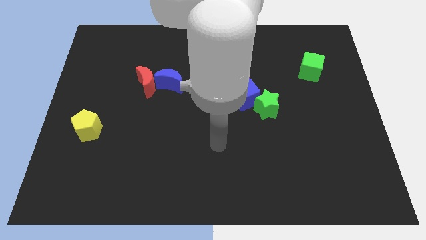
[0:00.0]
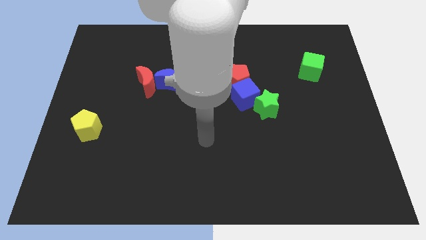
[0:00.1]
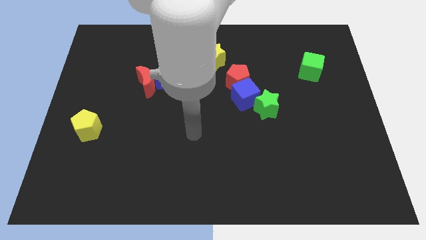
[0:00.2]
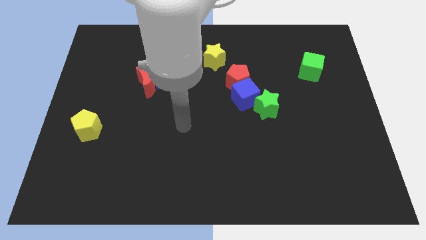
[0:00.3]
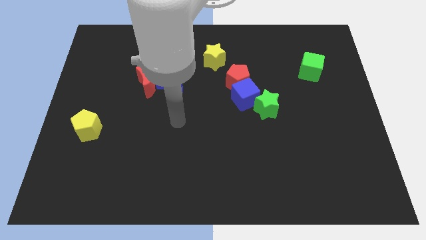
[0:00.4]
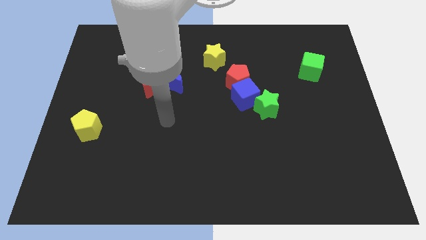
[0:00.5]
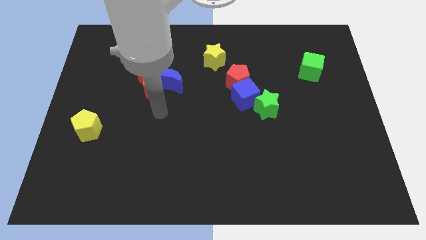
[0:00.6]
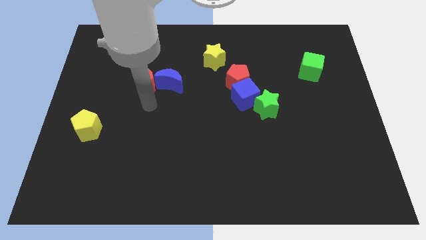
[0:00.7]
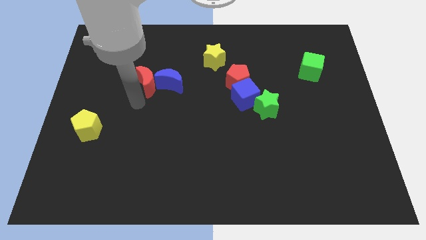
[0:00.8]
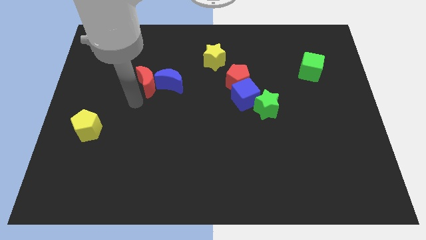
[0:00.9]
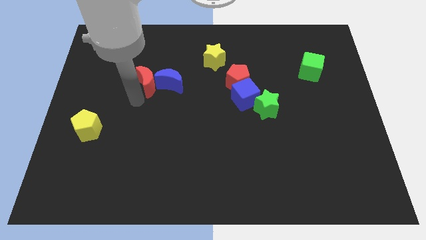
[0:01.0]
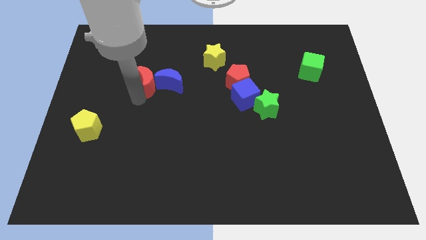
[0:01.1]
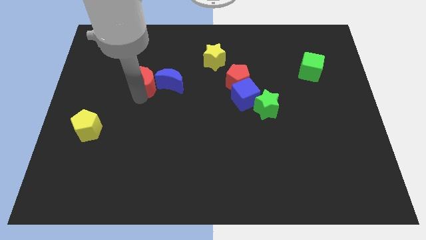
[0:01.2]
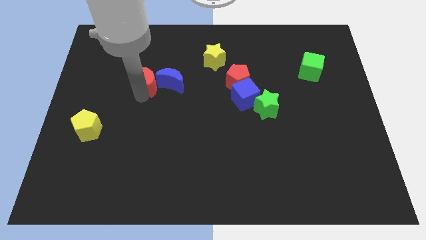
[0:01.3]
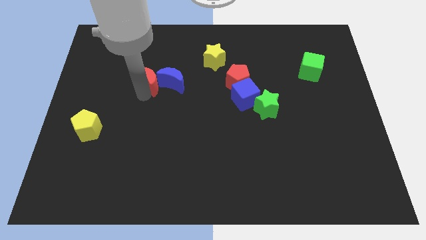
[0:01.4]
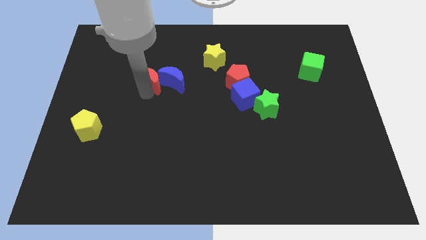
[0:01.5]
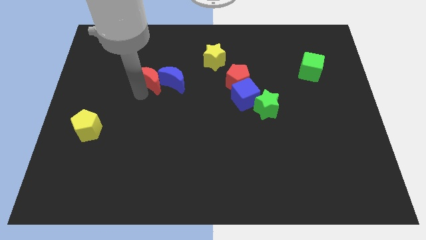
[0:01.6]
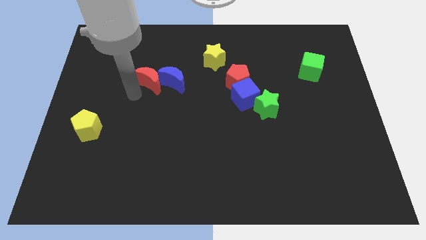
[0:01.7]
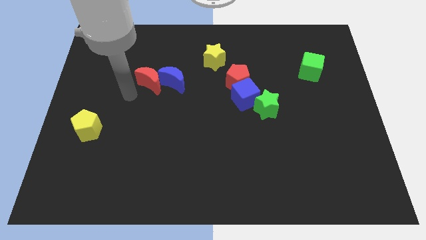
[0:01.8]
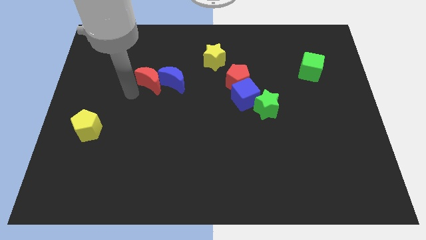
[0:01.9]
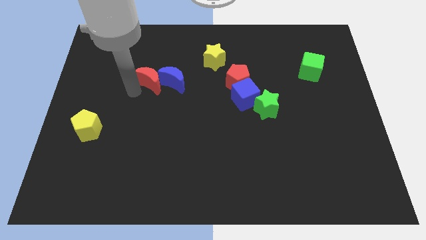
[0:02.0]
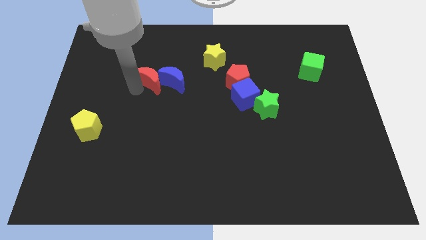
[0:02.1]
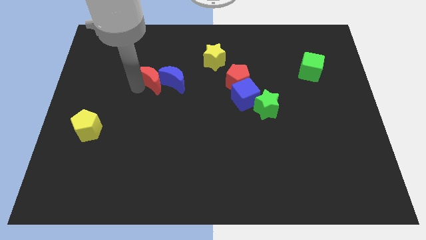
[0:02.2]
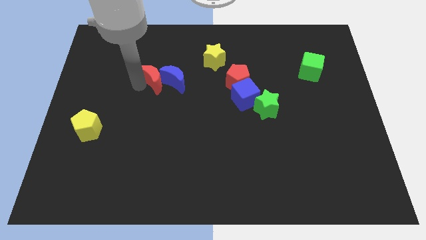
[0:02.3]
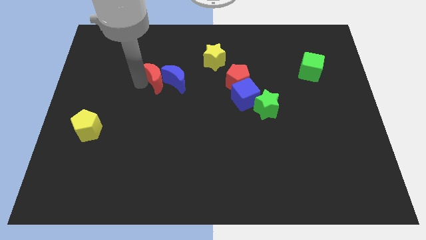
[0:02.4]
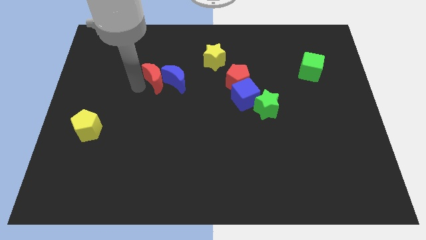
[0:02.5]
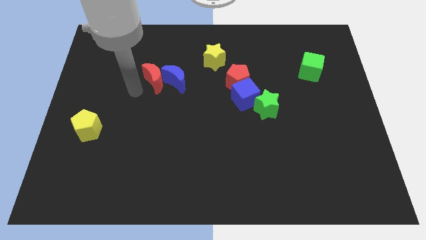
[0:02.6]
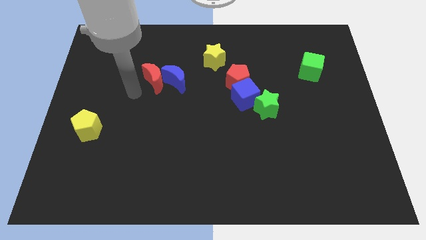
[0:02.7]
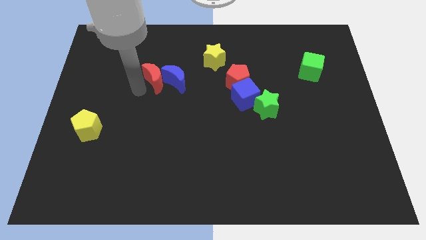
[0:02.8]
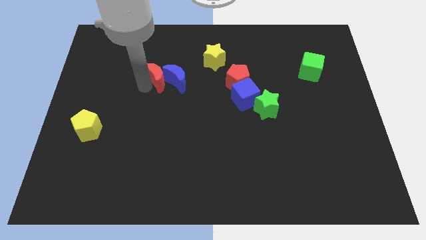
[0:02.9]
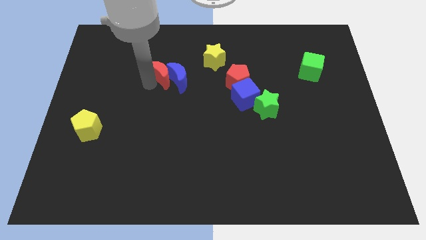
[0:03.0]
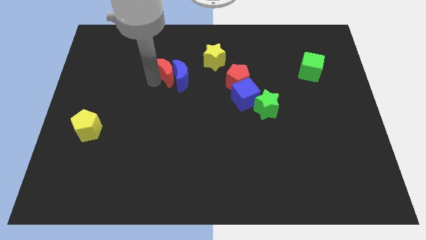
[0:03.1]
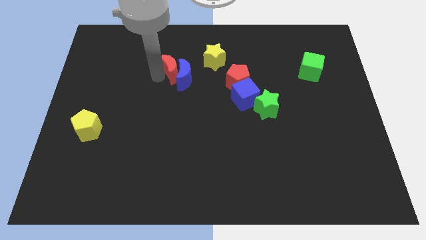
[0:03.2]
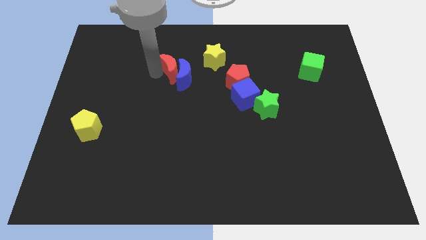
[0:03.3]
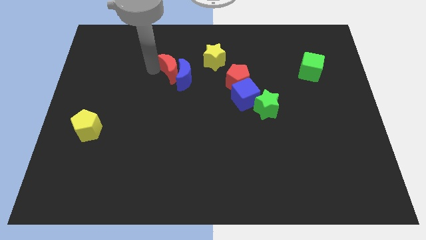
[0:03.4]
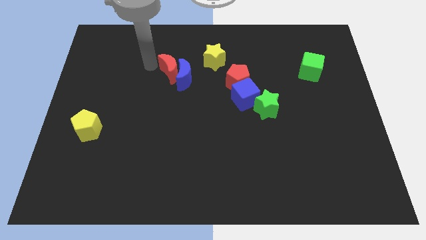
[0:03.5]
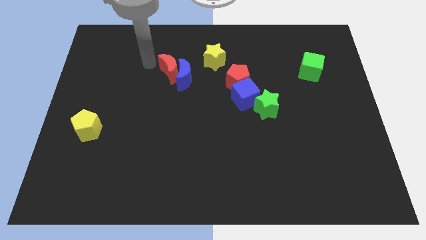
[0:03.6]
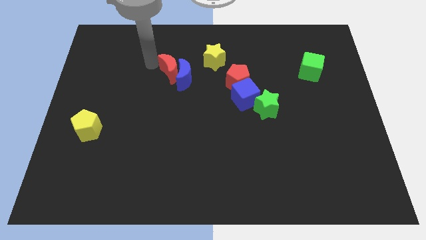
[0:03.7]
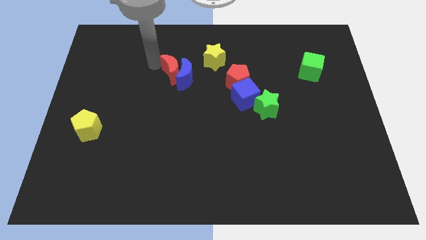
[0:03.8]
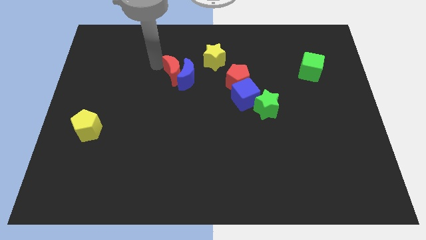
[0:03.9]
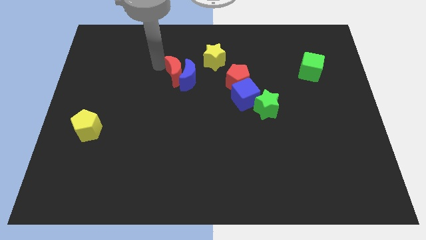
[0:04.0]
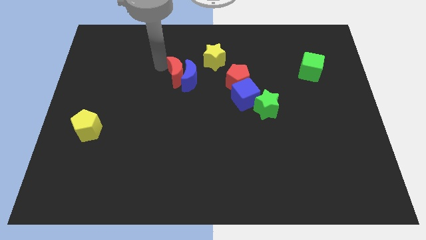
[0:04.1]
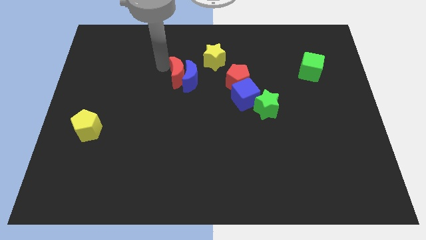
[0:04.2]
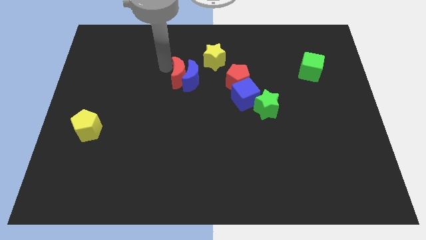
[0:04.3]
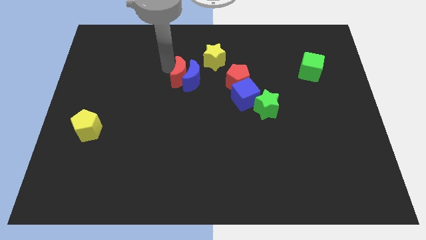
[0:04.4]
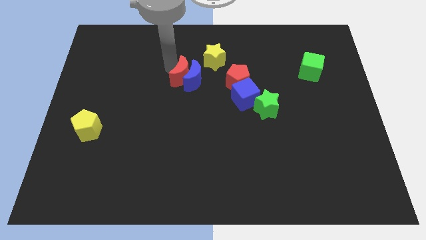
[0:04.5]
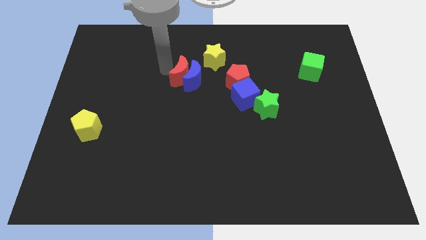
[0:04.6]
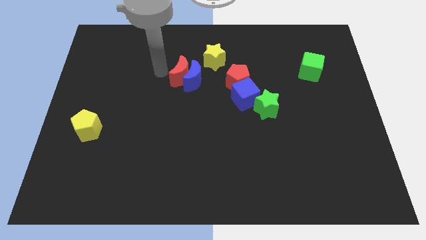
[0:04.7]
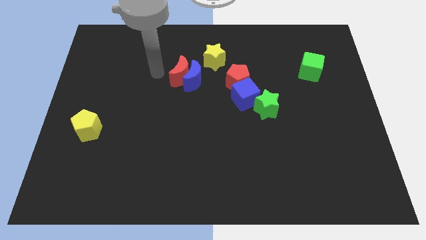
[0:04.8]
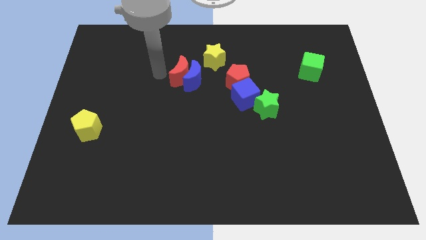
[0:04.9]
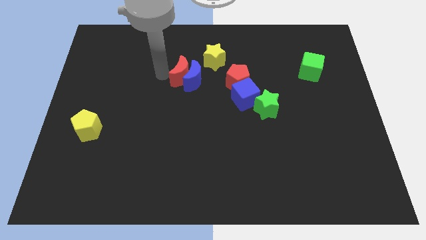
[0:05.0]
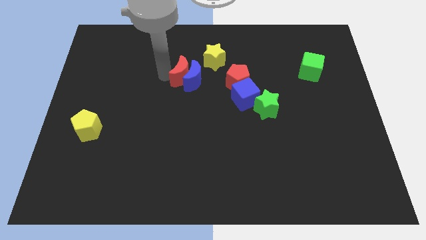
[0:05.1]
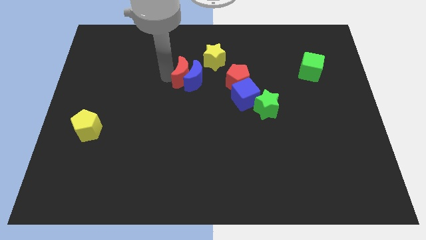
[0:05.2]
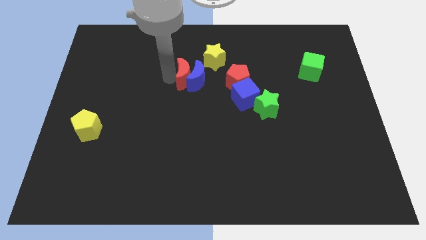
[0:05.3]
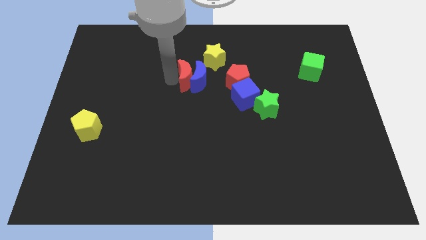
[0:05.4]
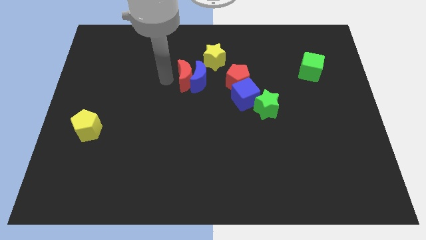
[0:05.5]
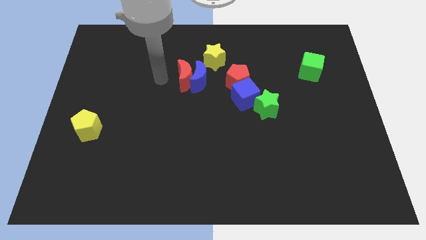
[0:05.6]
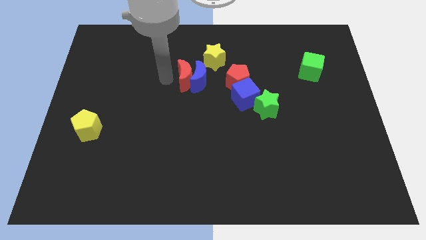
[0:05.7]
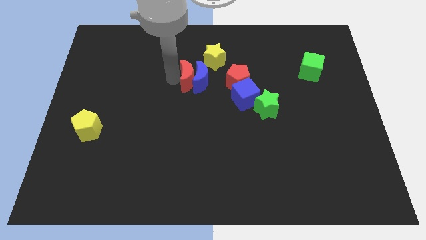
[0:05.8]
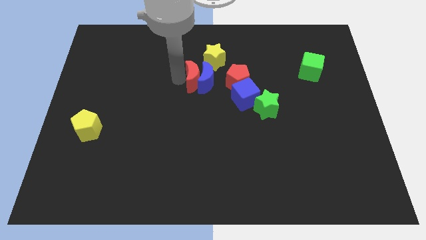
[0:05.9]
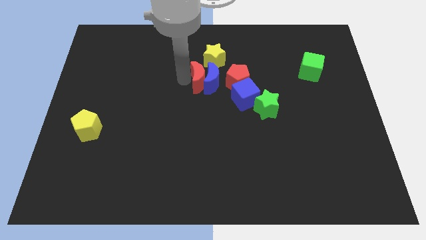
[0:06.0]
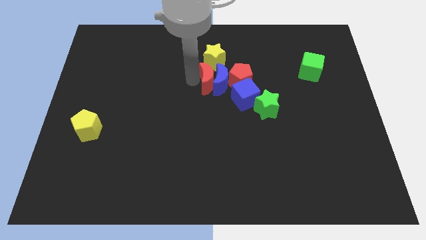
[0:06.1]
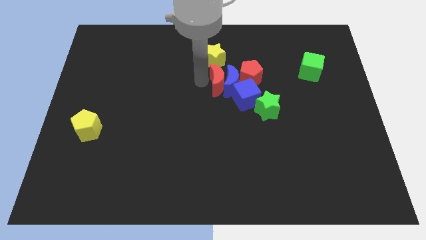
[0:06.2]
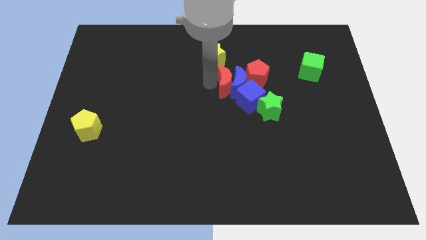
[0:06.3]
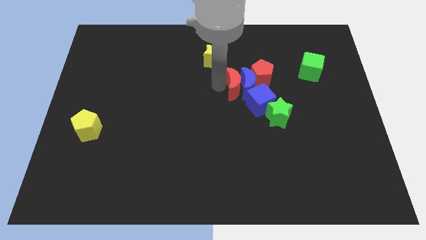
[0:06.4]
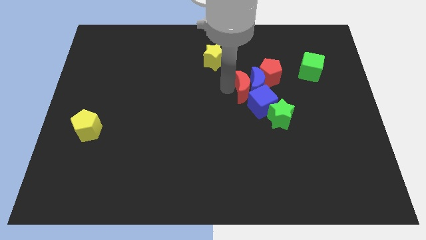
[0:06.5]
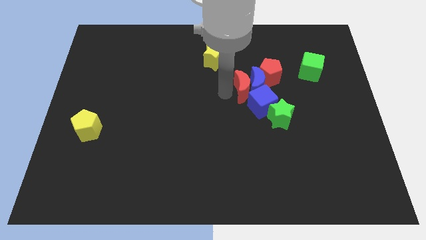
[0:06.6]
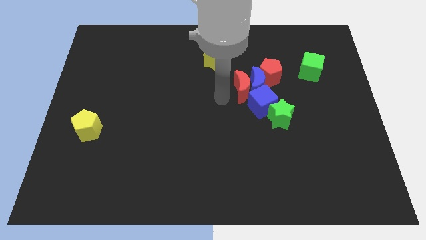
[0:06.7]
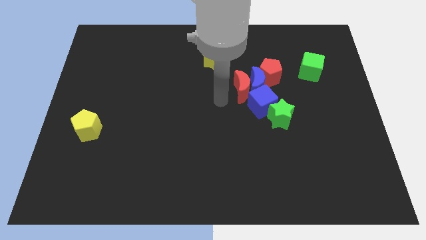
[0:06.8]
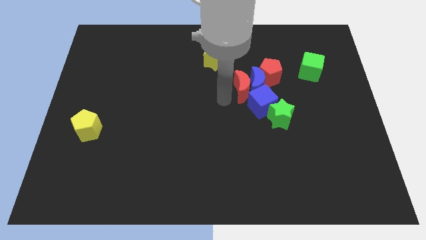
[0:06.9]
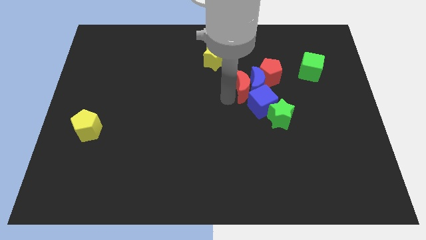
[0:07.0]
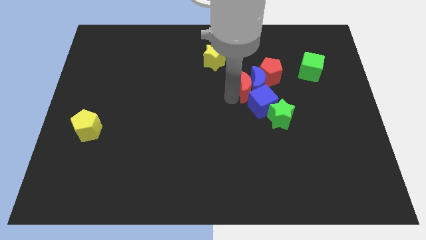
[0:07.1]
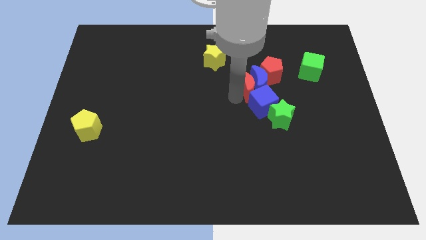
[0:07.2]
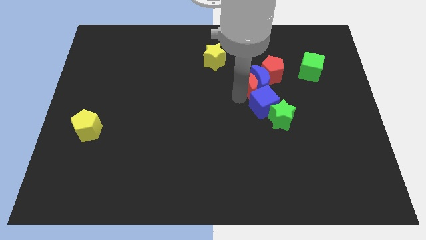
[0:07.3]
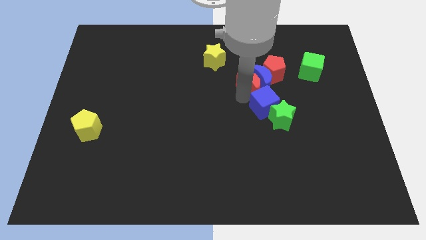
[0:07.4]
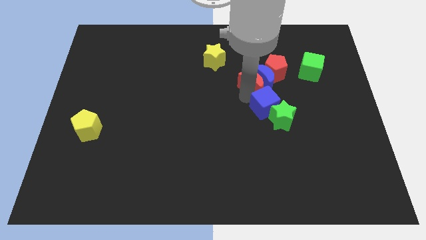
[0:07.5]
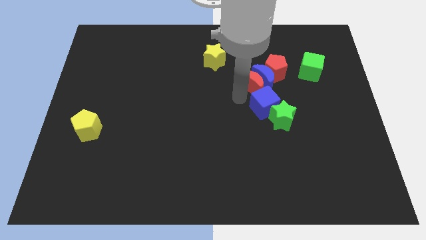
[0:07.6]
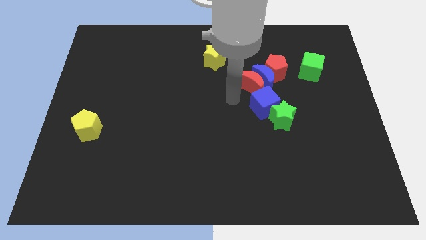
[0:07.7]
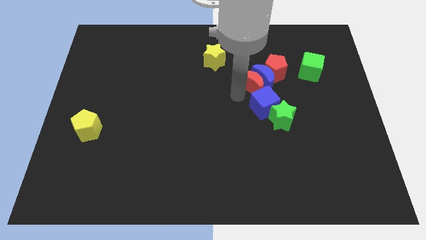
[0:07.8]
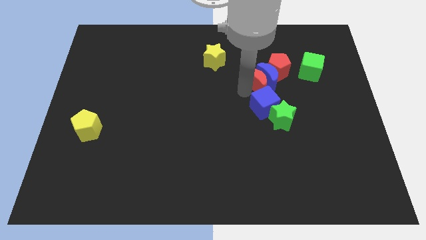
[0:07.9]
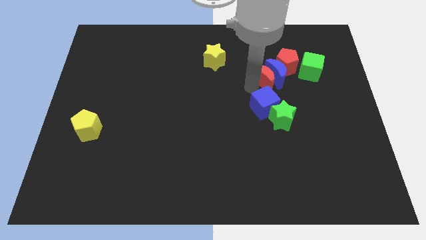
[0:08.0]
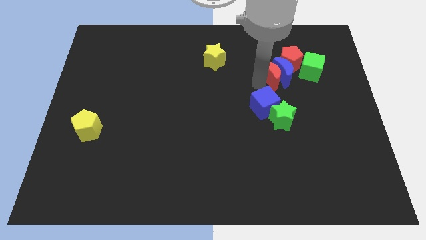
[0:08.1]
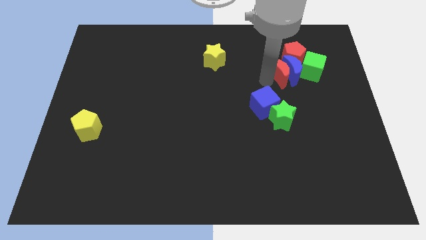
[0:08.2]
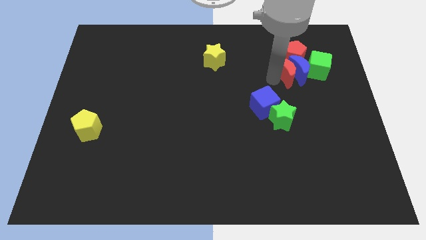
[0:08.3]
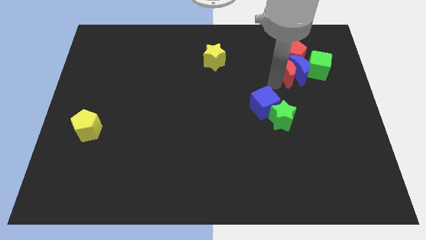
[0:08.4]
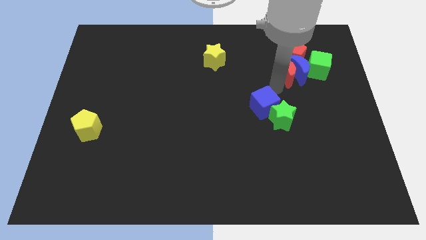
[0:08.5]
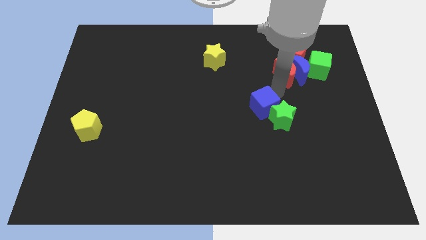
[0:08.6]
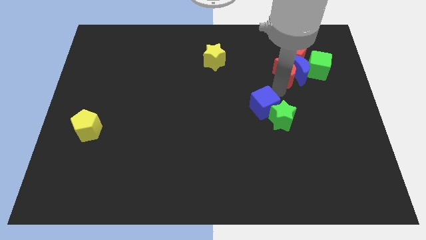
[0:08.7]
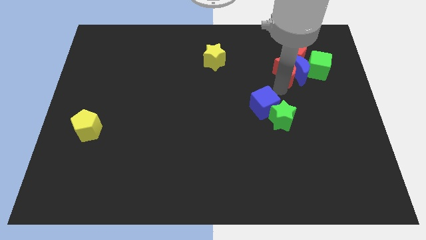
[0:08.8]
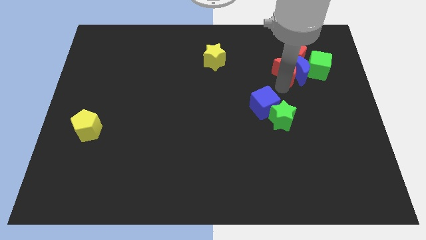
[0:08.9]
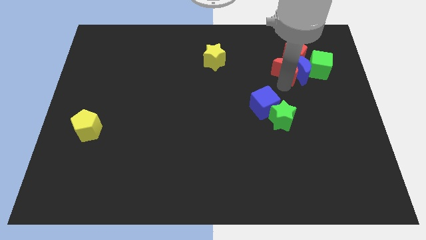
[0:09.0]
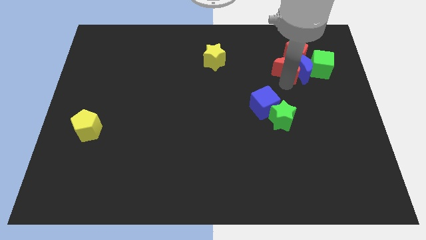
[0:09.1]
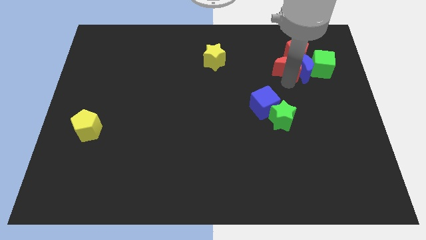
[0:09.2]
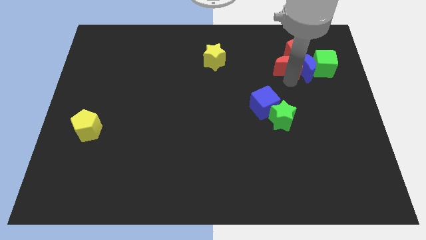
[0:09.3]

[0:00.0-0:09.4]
put the red moon to the red pentagon
